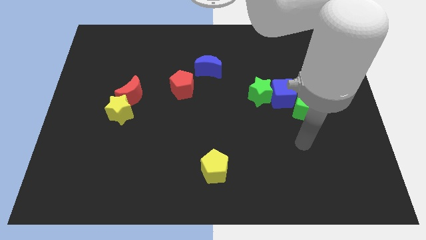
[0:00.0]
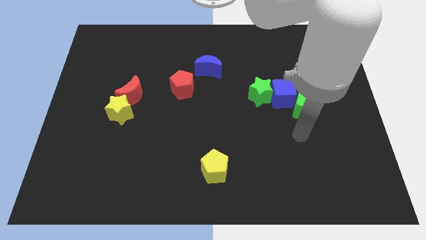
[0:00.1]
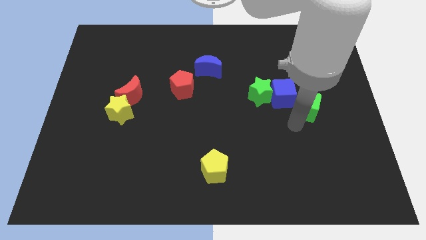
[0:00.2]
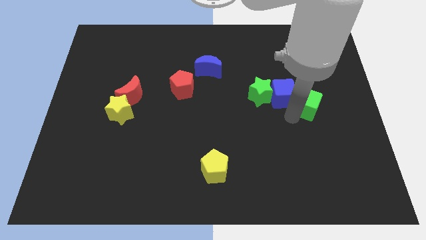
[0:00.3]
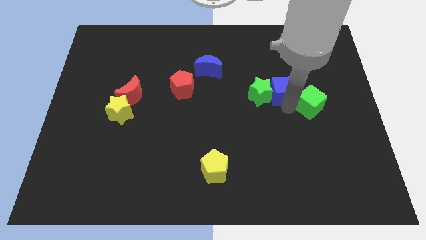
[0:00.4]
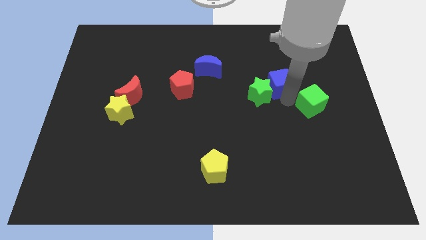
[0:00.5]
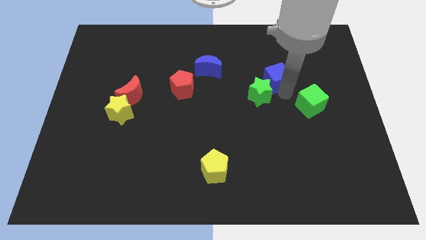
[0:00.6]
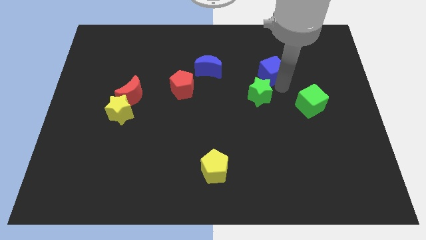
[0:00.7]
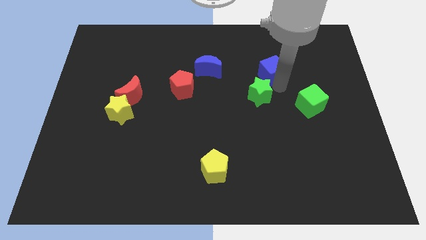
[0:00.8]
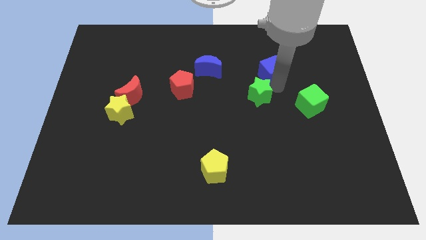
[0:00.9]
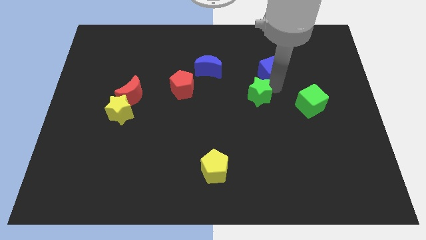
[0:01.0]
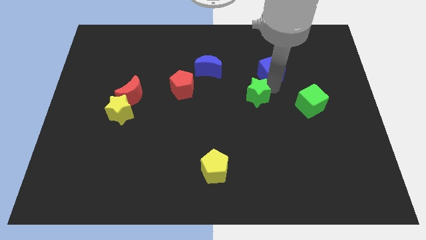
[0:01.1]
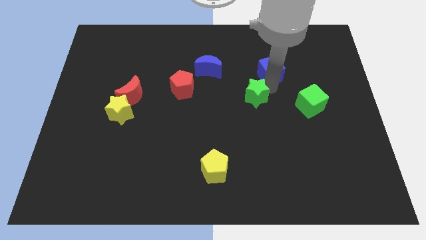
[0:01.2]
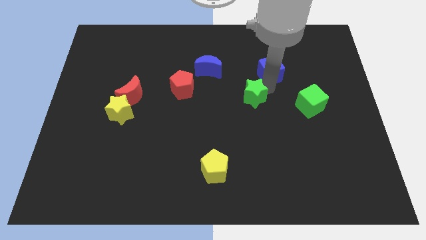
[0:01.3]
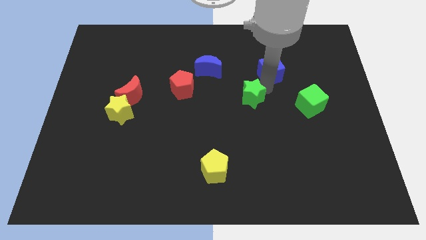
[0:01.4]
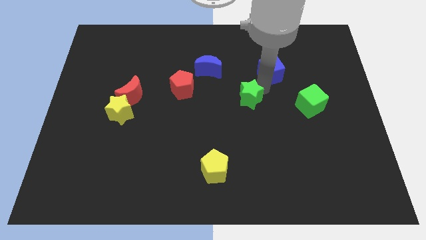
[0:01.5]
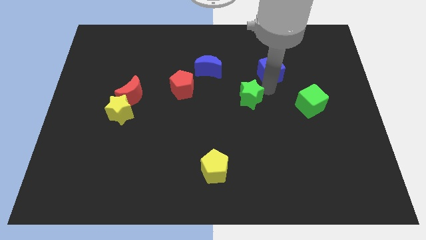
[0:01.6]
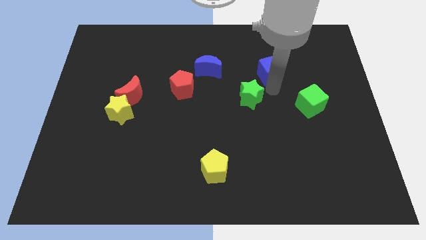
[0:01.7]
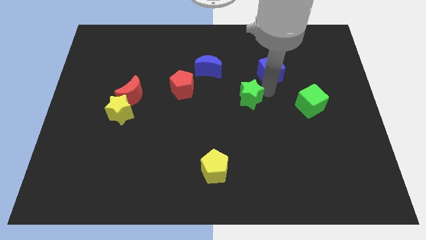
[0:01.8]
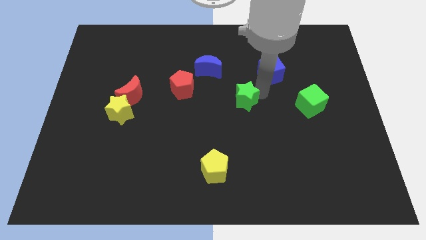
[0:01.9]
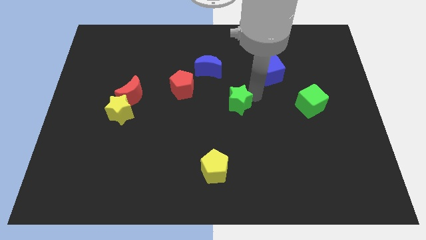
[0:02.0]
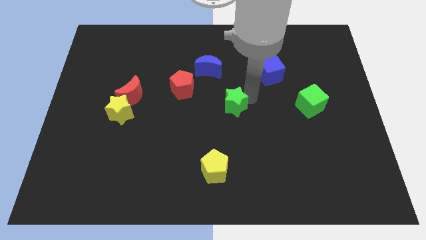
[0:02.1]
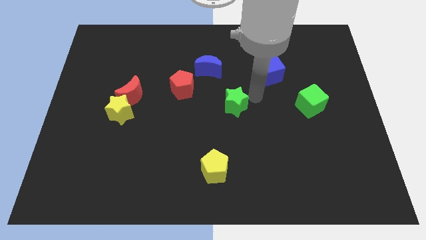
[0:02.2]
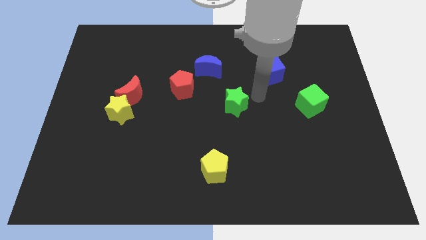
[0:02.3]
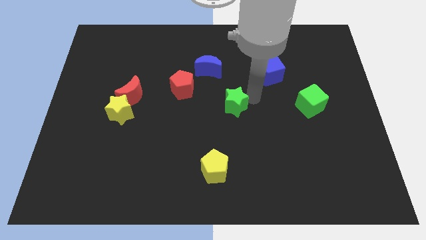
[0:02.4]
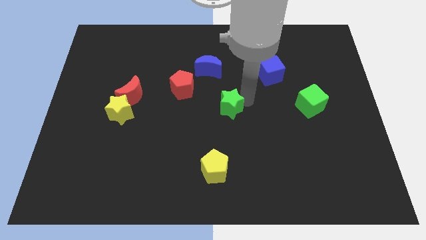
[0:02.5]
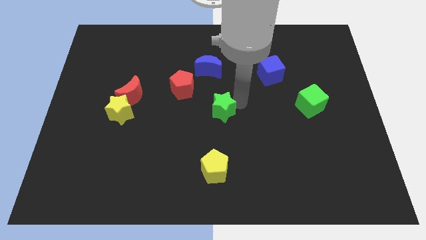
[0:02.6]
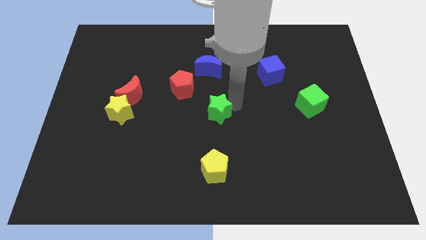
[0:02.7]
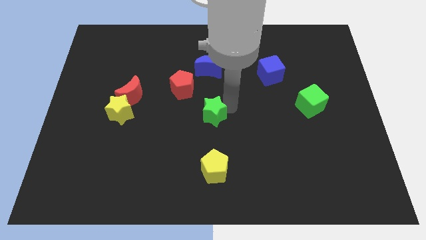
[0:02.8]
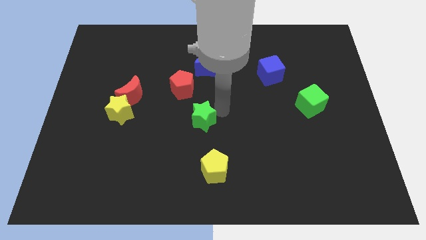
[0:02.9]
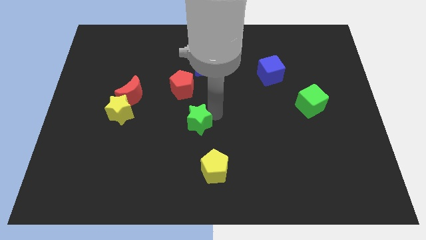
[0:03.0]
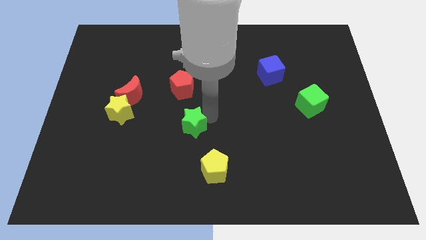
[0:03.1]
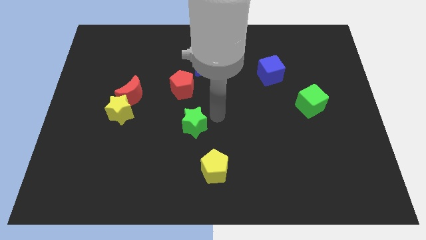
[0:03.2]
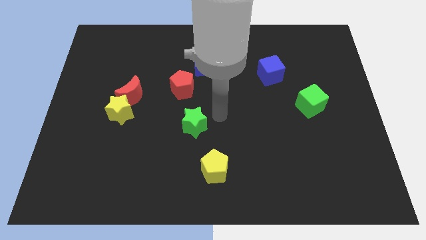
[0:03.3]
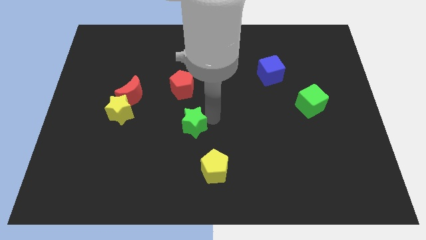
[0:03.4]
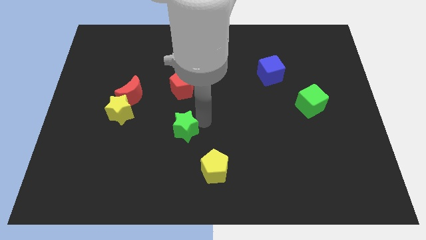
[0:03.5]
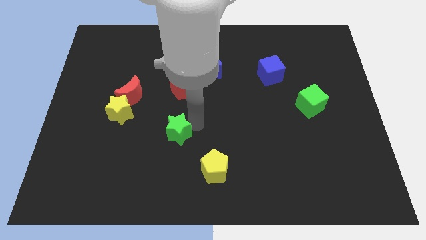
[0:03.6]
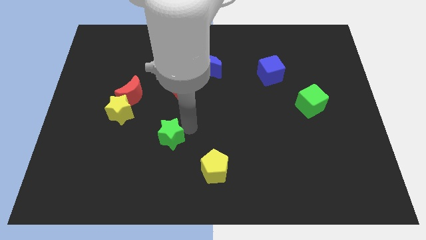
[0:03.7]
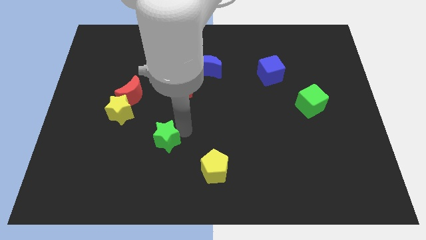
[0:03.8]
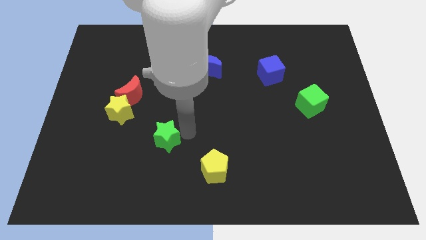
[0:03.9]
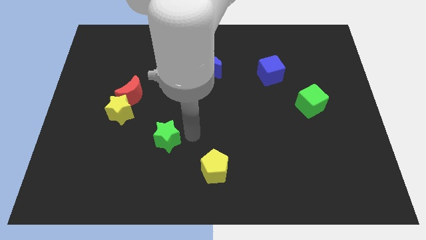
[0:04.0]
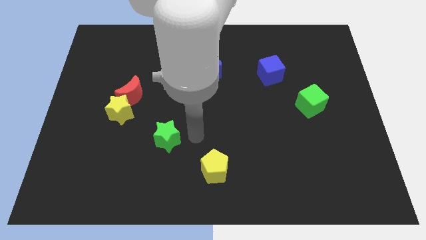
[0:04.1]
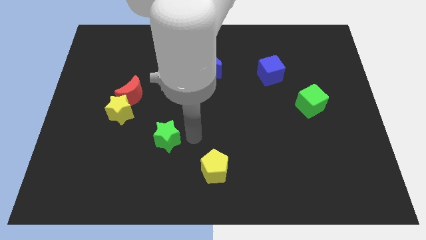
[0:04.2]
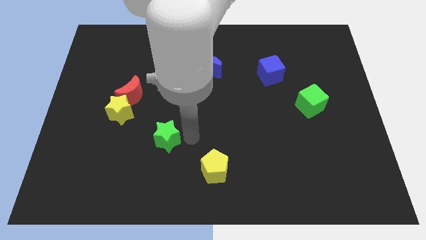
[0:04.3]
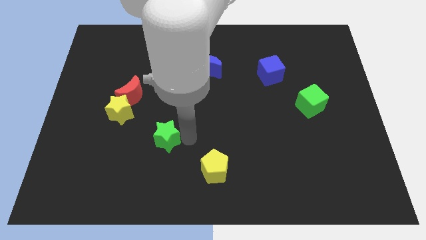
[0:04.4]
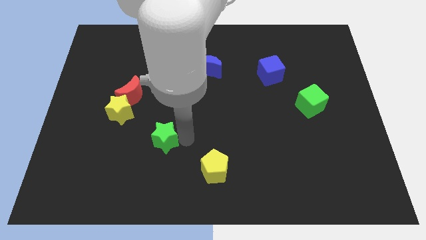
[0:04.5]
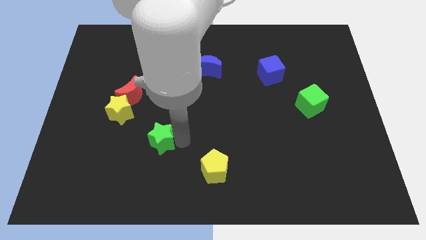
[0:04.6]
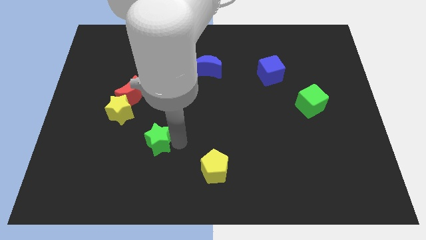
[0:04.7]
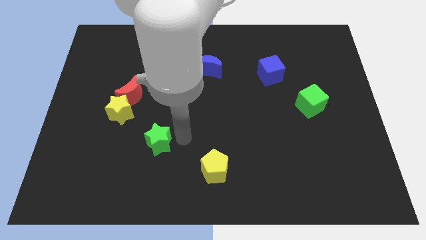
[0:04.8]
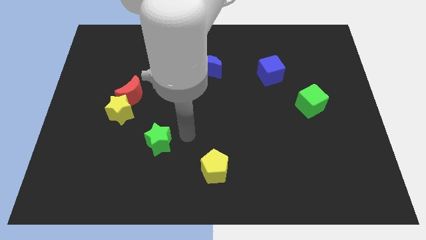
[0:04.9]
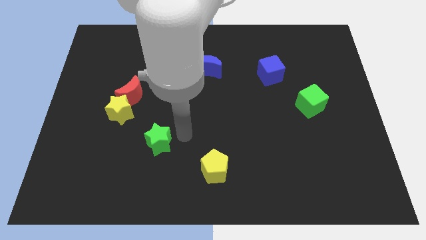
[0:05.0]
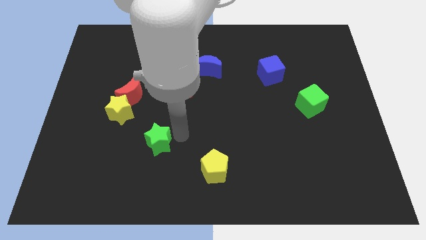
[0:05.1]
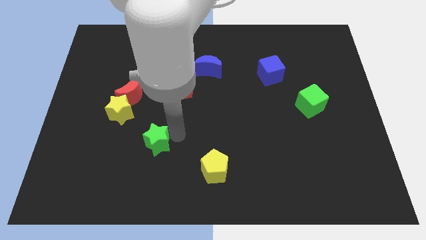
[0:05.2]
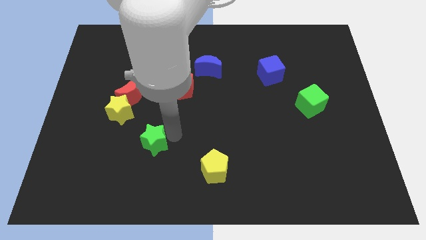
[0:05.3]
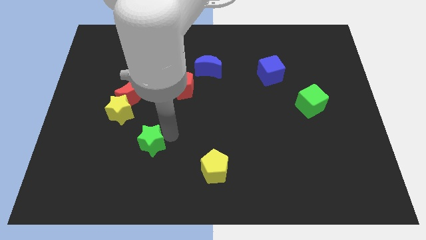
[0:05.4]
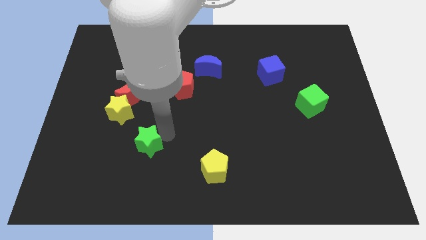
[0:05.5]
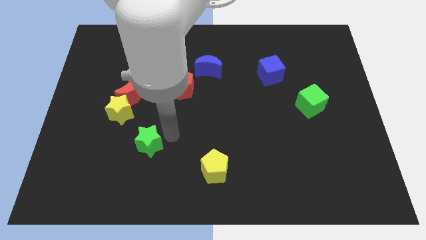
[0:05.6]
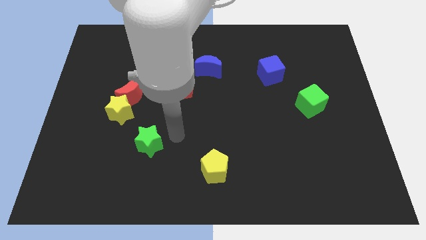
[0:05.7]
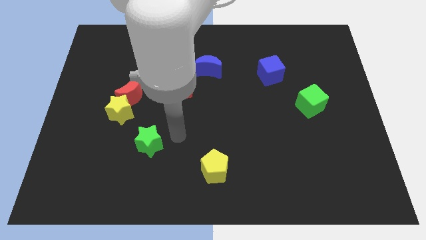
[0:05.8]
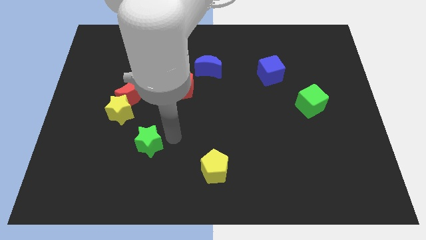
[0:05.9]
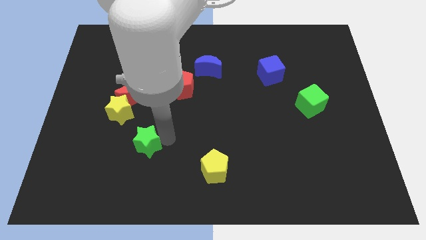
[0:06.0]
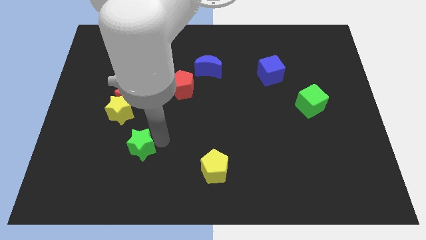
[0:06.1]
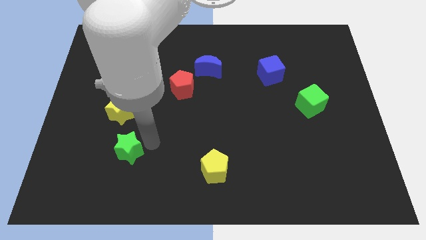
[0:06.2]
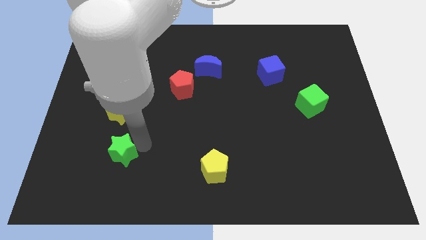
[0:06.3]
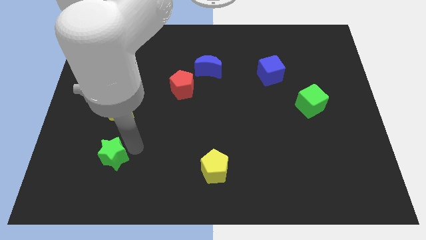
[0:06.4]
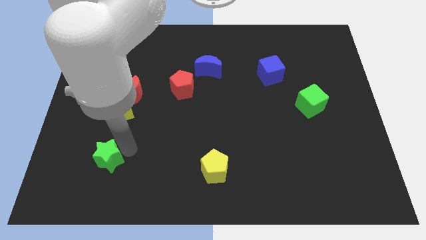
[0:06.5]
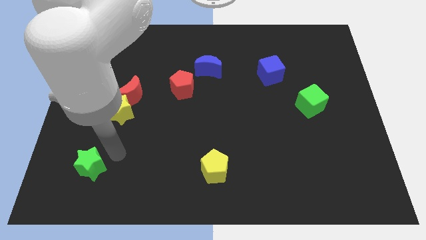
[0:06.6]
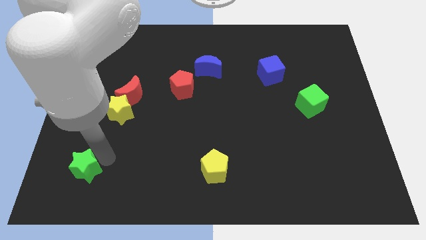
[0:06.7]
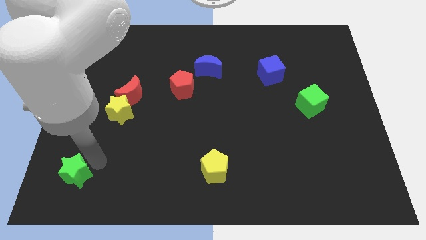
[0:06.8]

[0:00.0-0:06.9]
slide the green star to the bottom left corner
